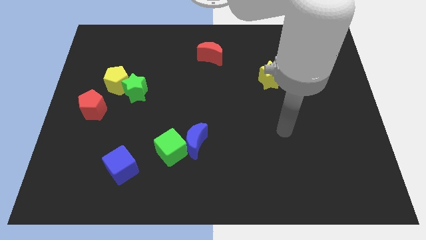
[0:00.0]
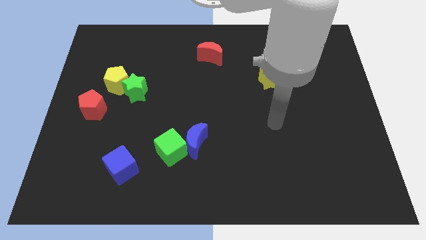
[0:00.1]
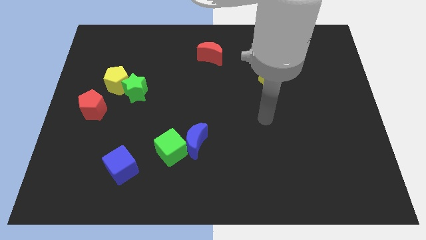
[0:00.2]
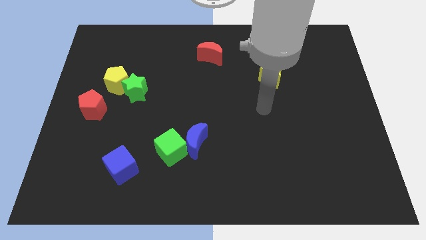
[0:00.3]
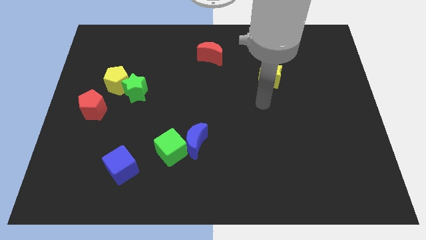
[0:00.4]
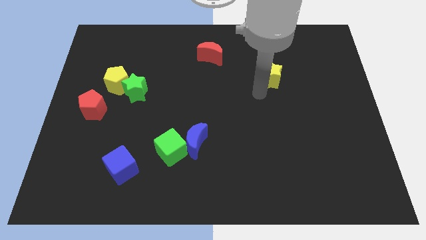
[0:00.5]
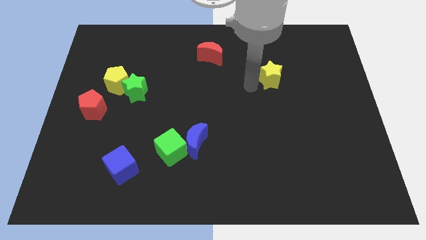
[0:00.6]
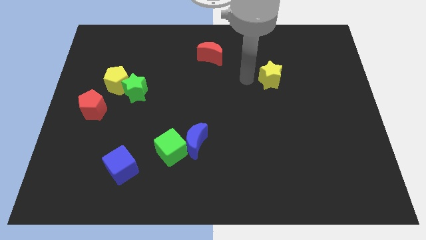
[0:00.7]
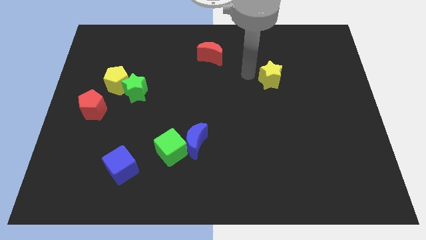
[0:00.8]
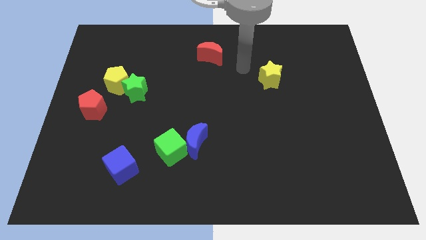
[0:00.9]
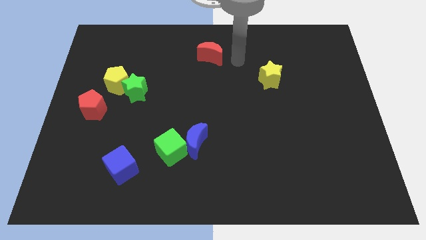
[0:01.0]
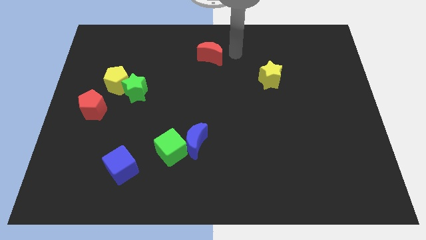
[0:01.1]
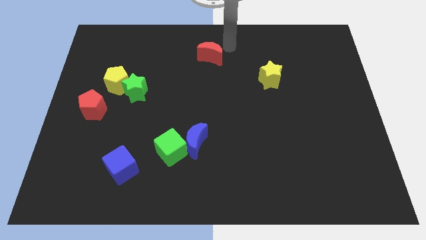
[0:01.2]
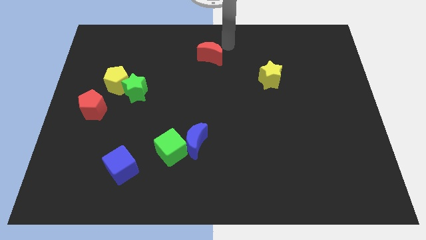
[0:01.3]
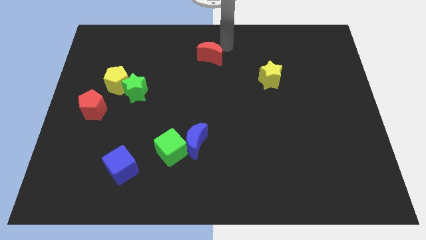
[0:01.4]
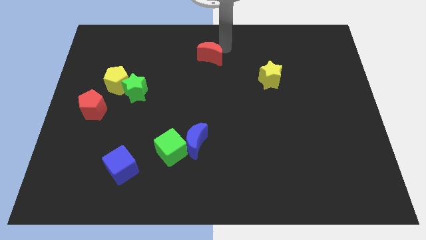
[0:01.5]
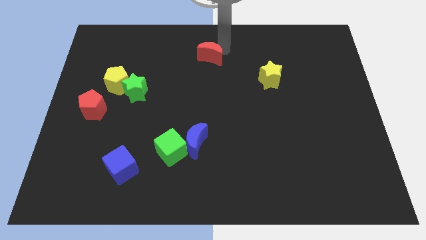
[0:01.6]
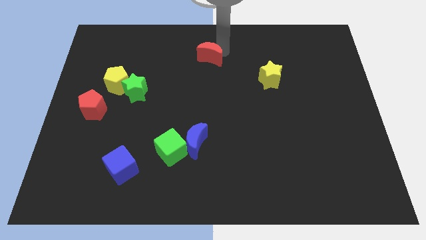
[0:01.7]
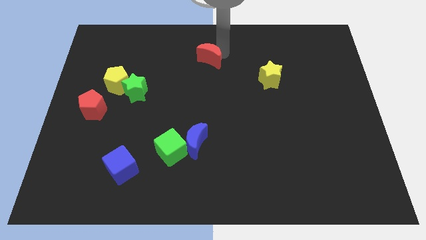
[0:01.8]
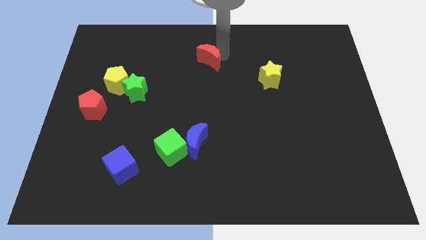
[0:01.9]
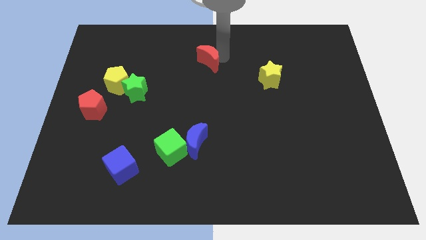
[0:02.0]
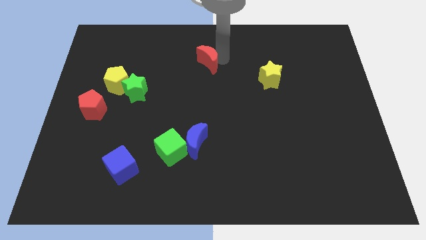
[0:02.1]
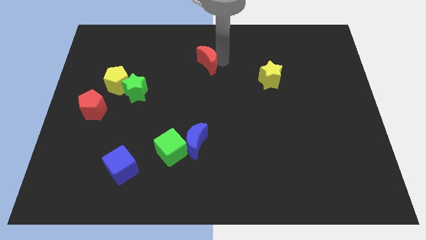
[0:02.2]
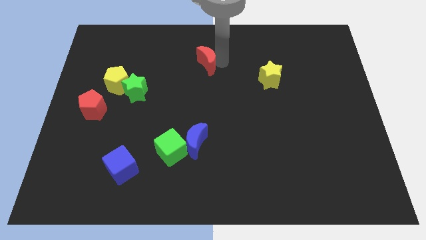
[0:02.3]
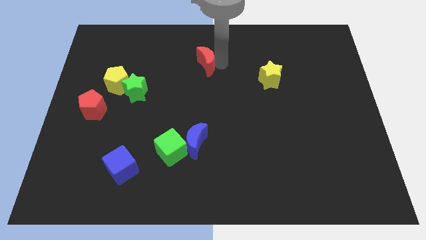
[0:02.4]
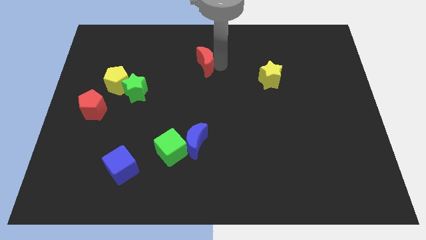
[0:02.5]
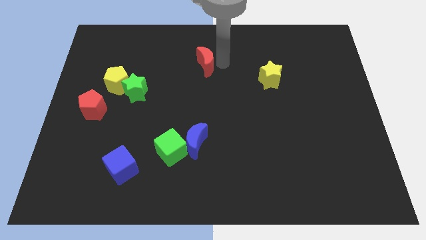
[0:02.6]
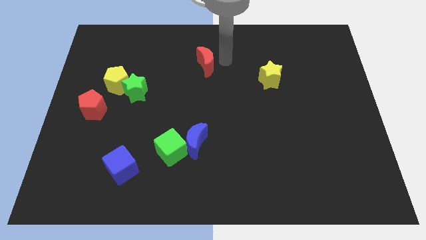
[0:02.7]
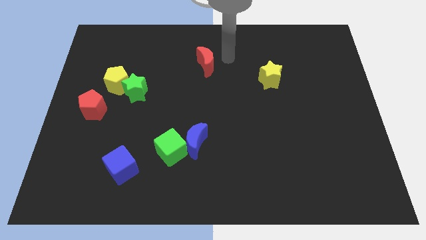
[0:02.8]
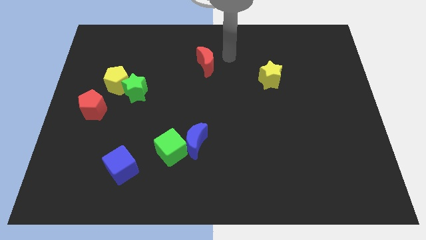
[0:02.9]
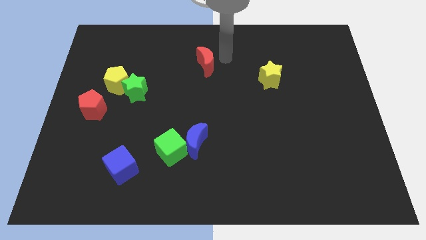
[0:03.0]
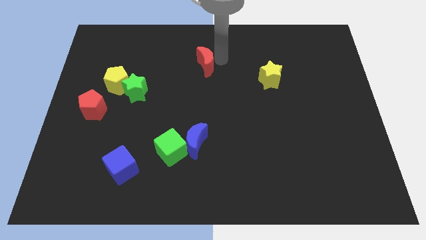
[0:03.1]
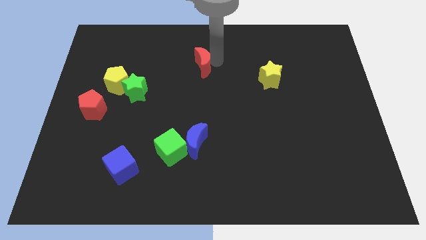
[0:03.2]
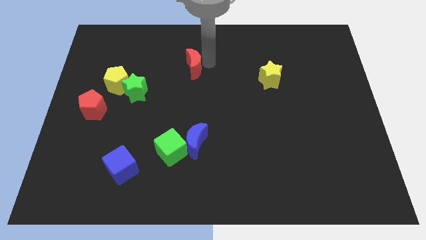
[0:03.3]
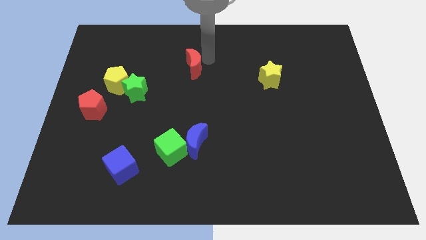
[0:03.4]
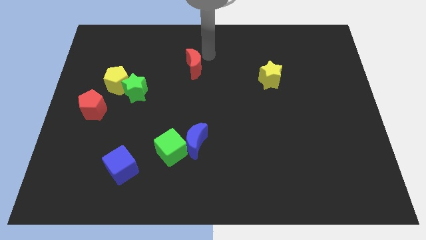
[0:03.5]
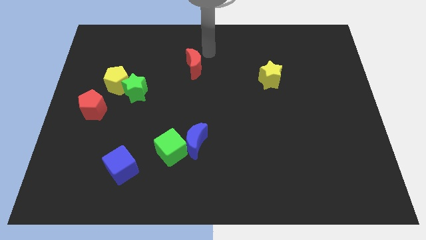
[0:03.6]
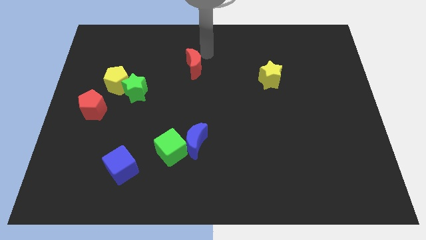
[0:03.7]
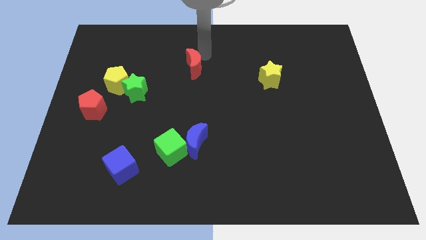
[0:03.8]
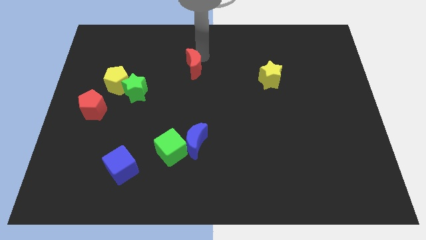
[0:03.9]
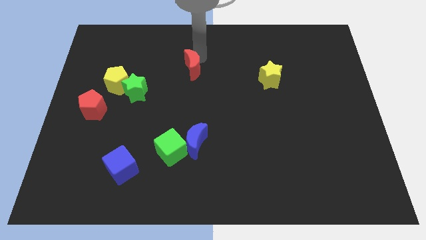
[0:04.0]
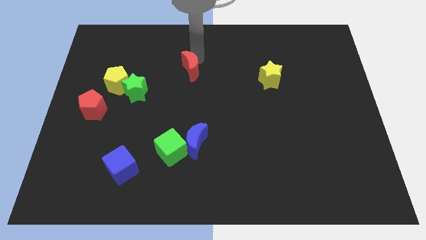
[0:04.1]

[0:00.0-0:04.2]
slightly push the red moon downwards and left diagonally

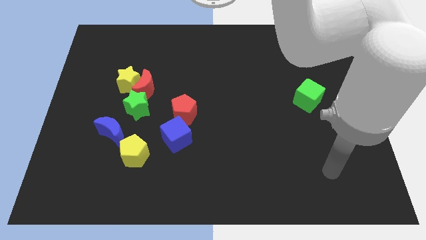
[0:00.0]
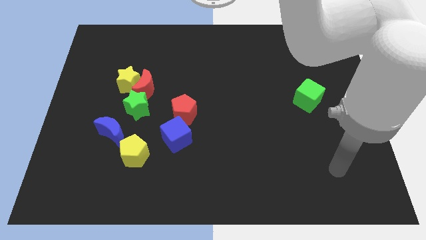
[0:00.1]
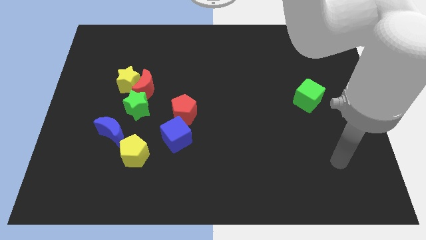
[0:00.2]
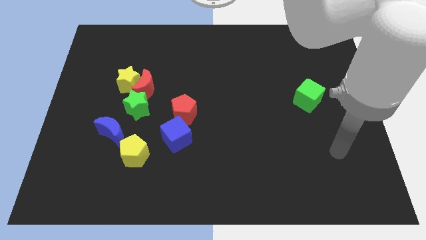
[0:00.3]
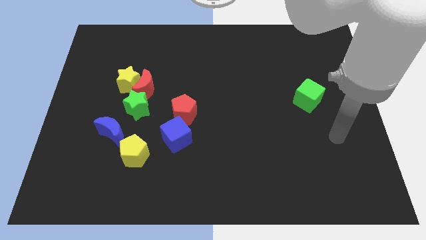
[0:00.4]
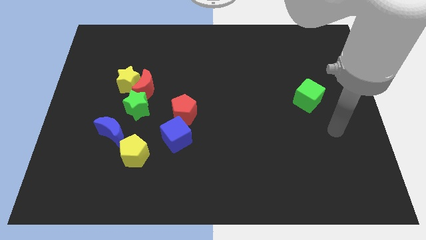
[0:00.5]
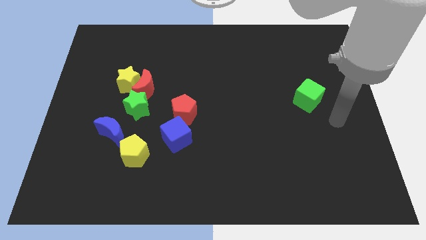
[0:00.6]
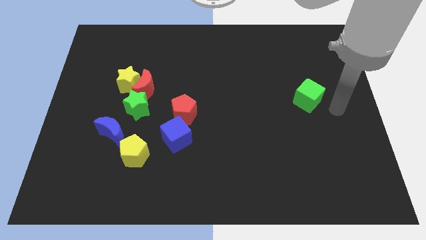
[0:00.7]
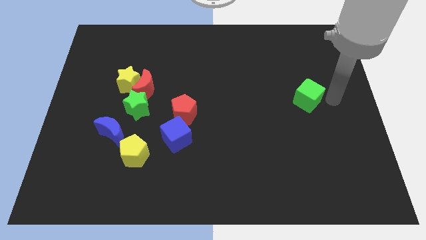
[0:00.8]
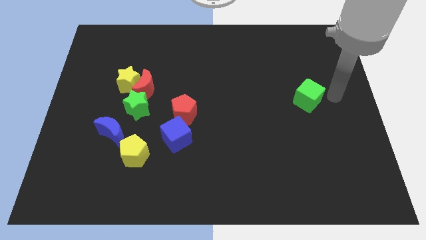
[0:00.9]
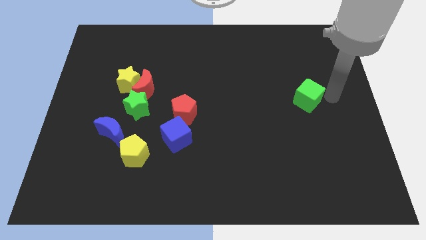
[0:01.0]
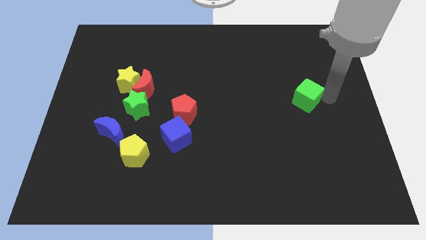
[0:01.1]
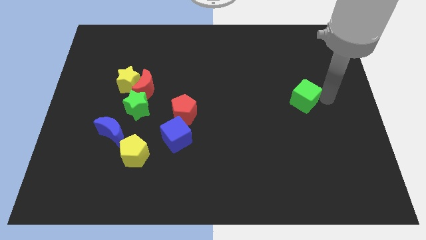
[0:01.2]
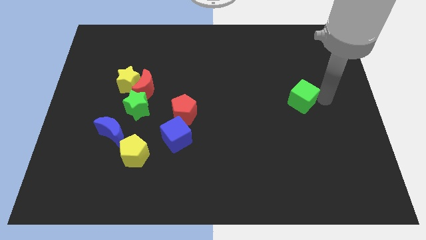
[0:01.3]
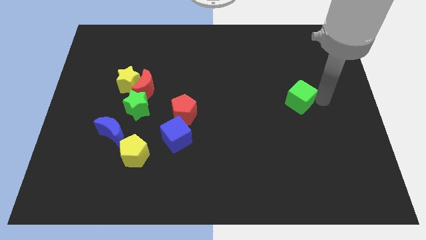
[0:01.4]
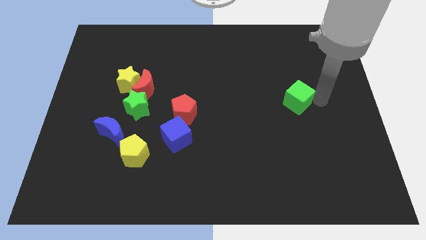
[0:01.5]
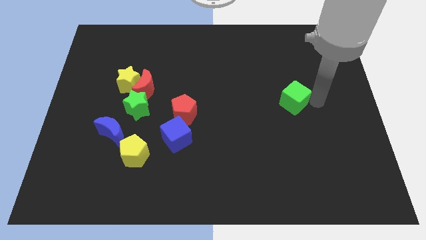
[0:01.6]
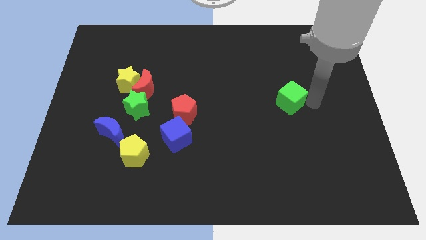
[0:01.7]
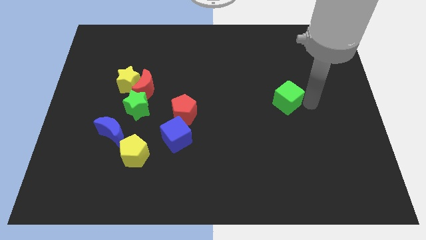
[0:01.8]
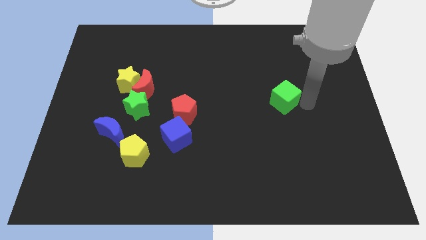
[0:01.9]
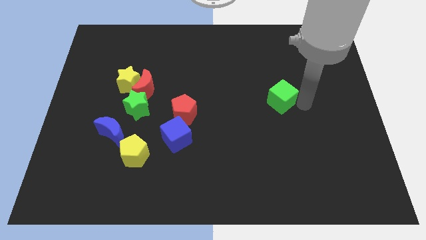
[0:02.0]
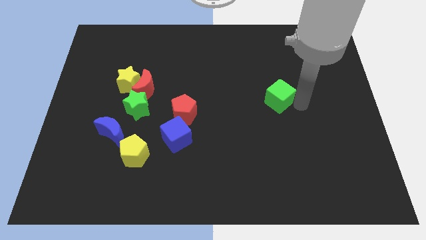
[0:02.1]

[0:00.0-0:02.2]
push the green cube slightly to the left

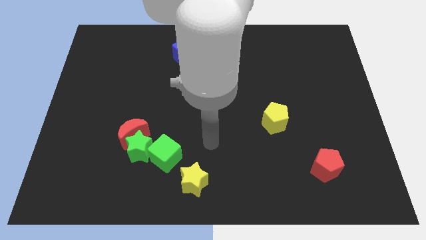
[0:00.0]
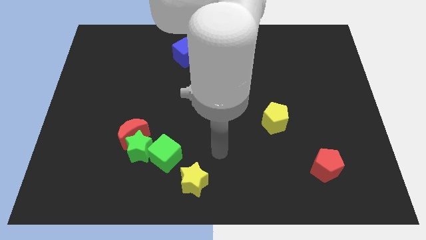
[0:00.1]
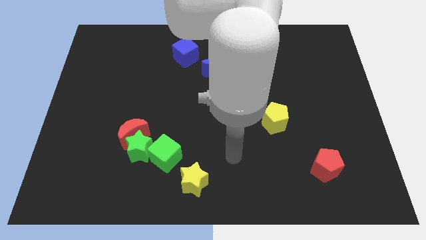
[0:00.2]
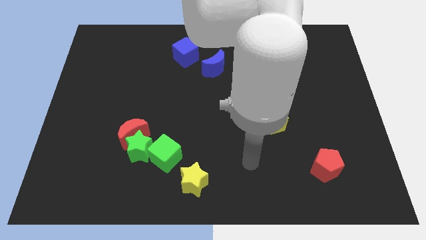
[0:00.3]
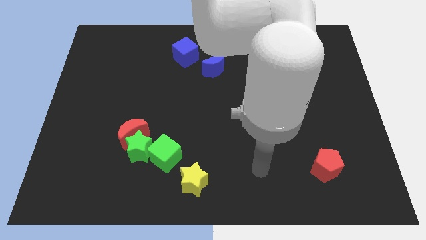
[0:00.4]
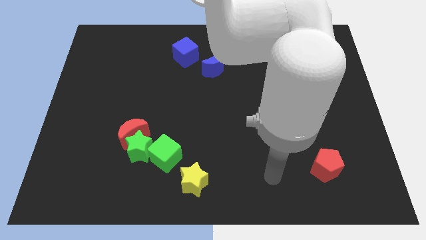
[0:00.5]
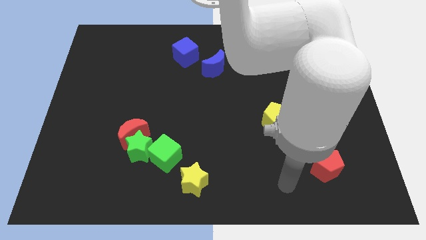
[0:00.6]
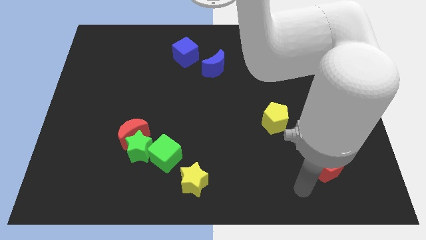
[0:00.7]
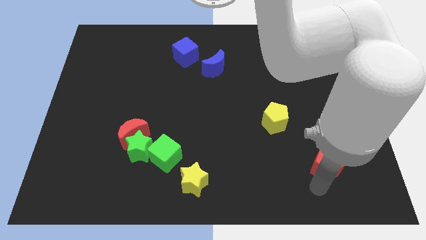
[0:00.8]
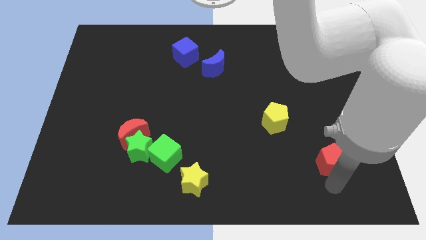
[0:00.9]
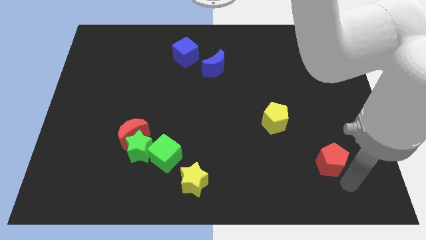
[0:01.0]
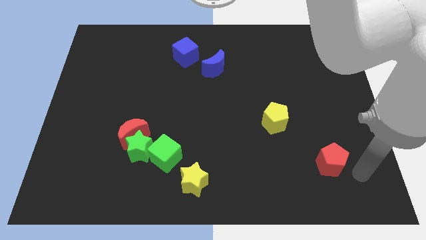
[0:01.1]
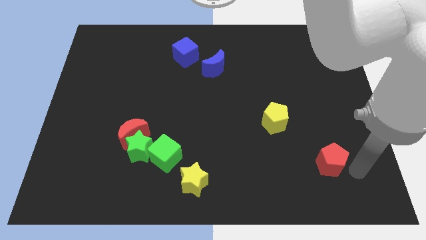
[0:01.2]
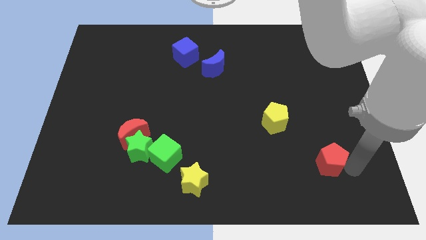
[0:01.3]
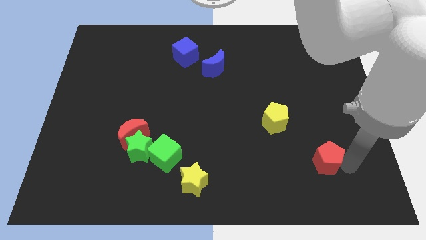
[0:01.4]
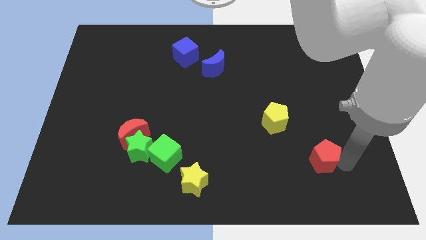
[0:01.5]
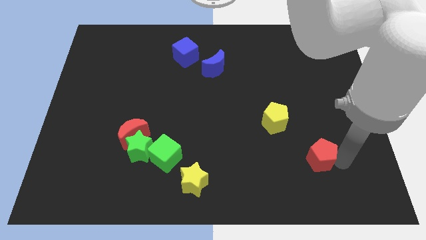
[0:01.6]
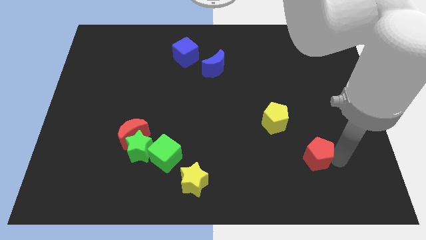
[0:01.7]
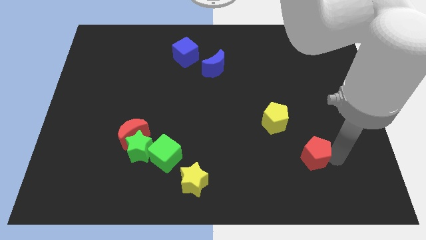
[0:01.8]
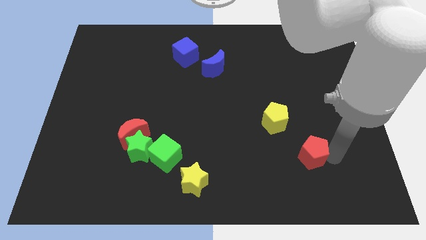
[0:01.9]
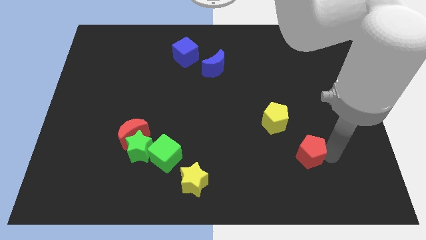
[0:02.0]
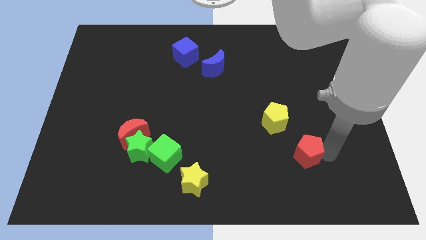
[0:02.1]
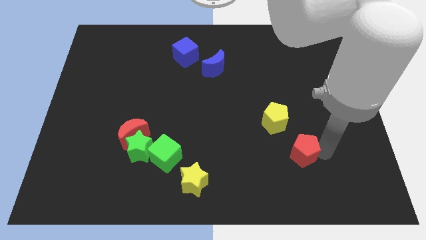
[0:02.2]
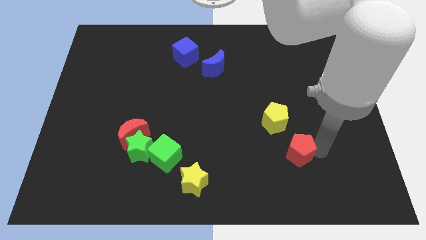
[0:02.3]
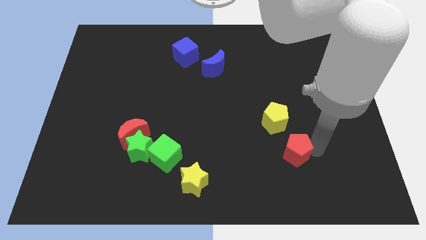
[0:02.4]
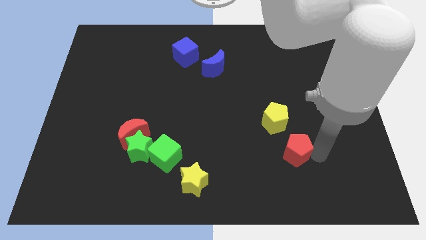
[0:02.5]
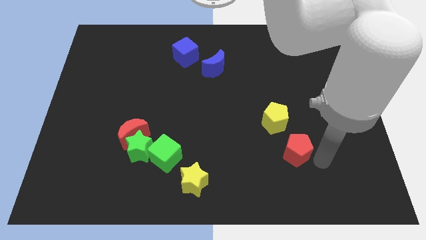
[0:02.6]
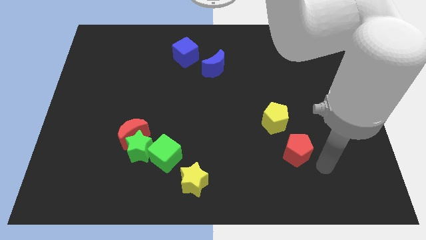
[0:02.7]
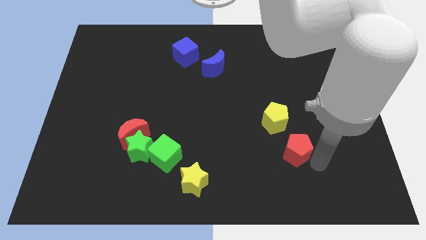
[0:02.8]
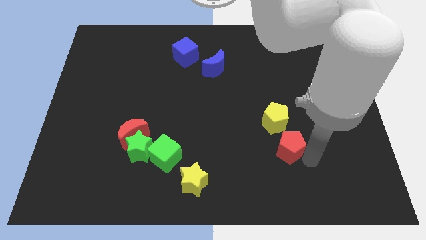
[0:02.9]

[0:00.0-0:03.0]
slightly slide the red pentagon up and to the left diagonally
